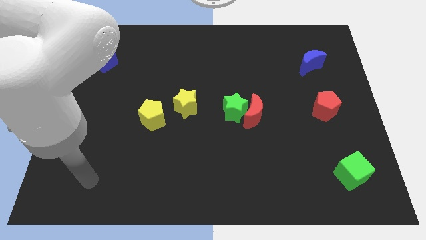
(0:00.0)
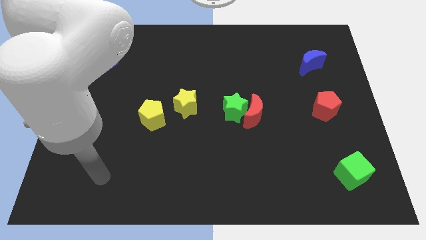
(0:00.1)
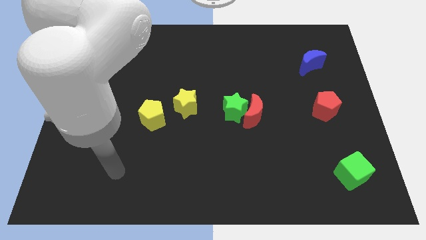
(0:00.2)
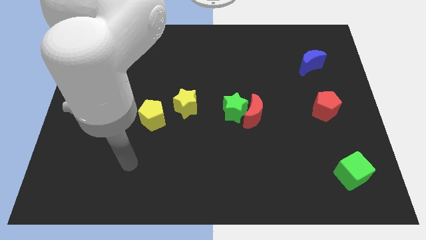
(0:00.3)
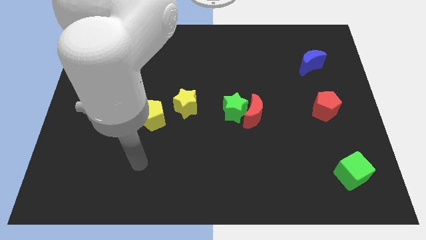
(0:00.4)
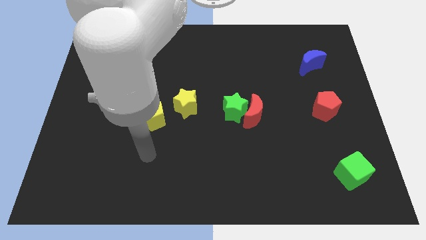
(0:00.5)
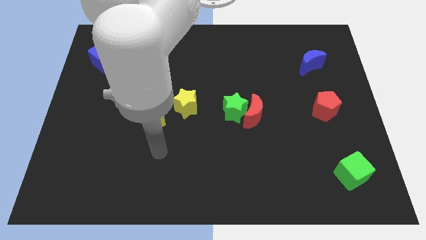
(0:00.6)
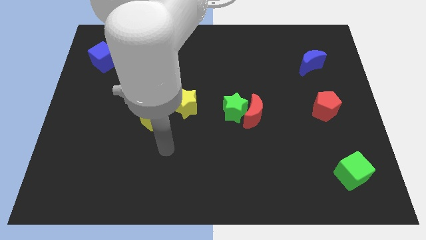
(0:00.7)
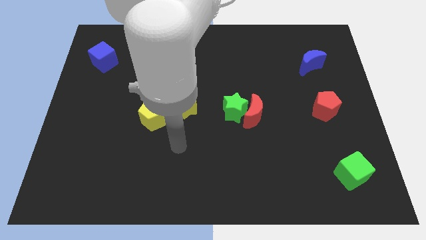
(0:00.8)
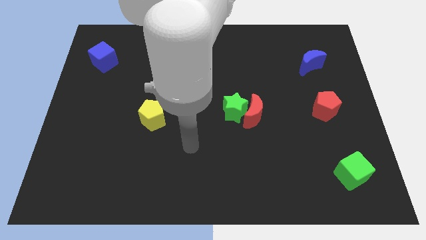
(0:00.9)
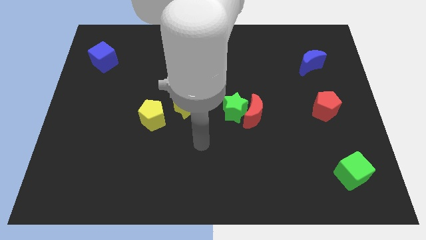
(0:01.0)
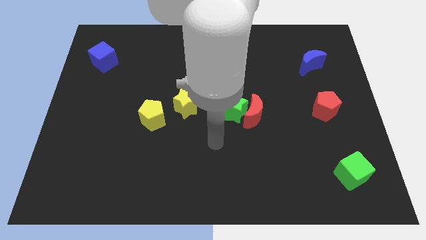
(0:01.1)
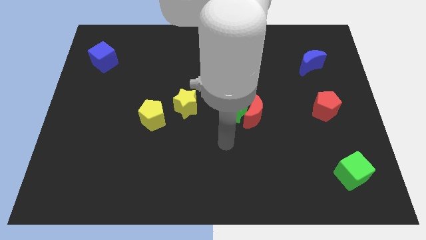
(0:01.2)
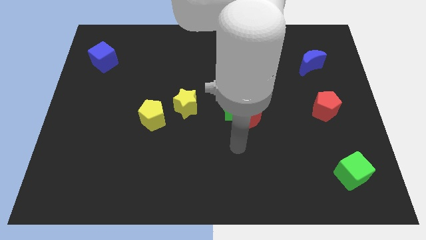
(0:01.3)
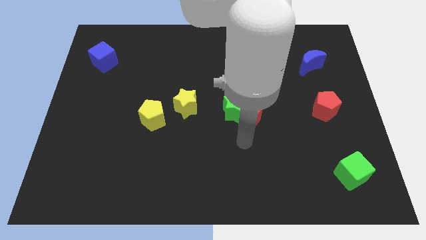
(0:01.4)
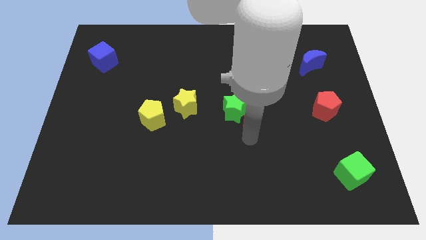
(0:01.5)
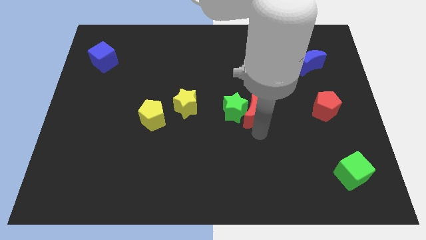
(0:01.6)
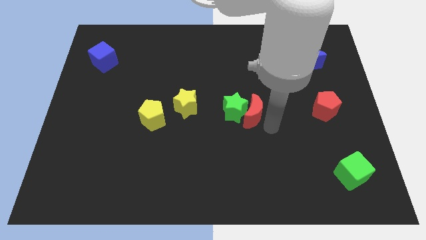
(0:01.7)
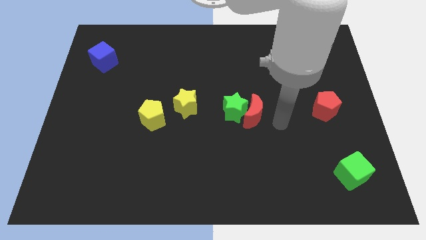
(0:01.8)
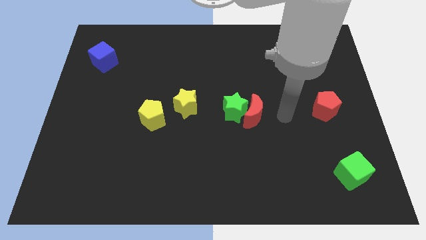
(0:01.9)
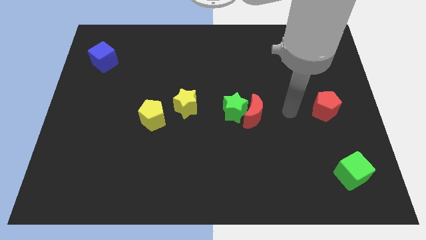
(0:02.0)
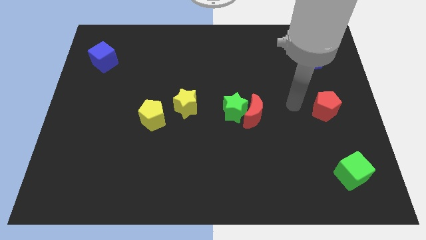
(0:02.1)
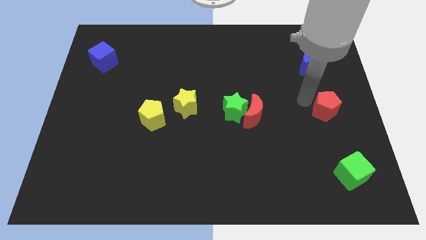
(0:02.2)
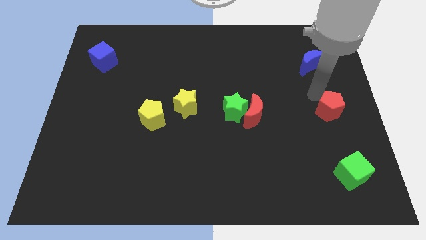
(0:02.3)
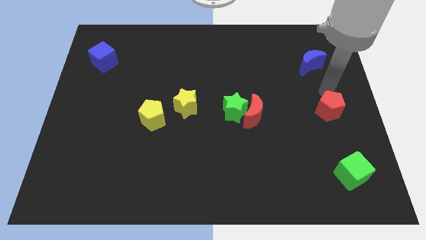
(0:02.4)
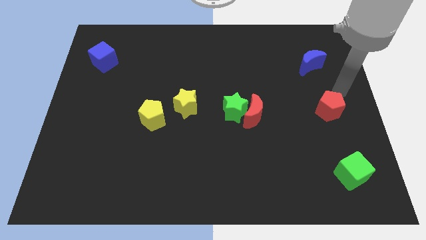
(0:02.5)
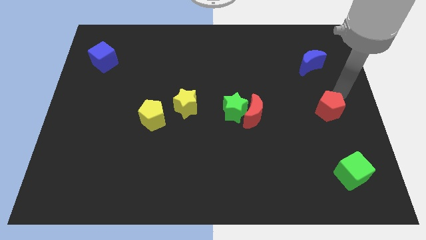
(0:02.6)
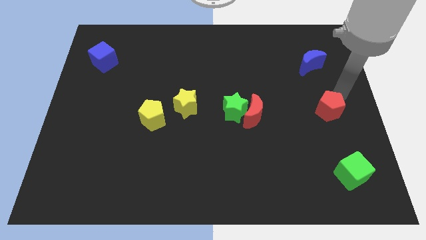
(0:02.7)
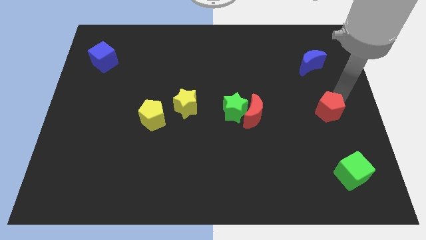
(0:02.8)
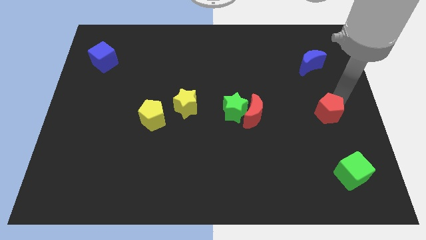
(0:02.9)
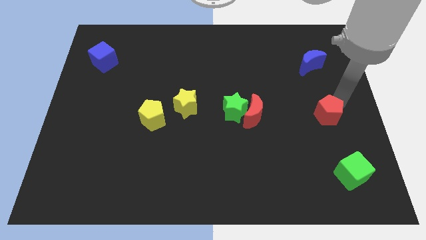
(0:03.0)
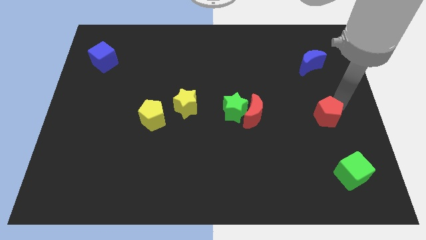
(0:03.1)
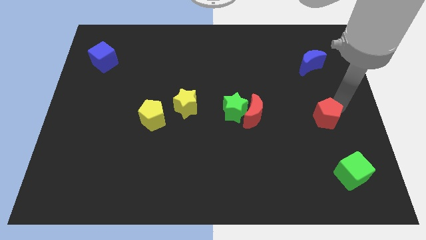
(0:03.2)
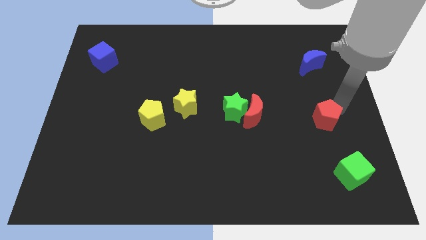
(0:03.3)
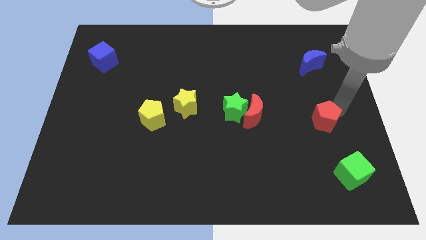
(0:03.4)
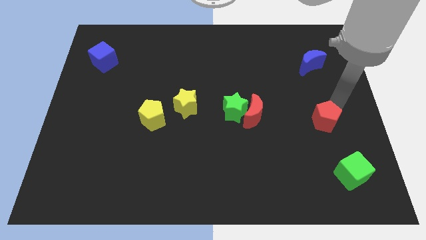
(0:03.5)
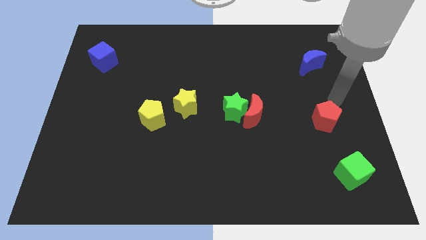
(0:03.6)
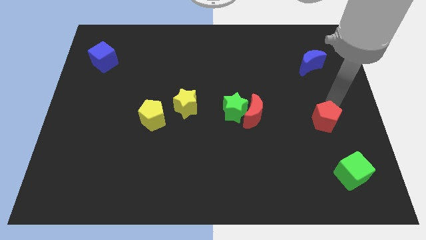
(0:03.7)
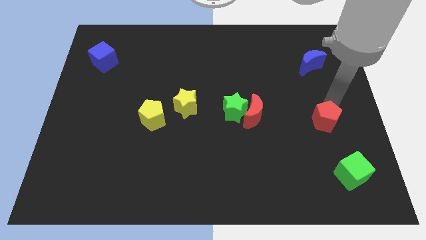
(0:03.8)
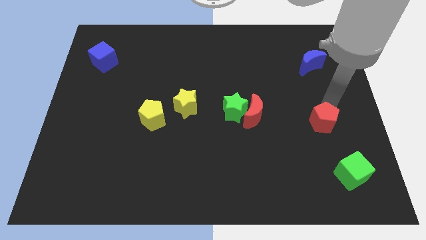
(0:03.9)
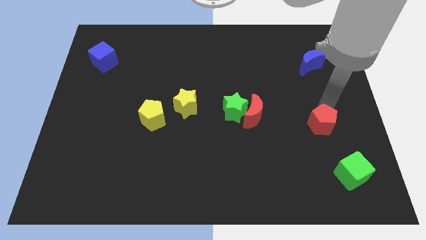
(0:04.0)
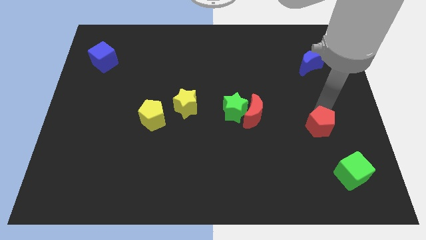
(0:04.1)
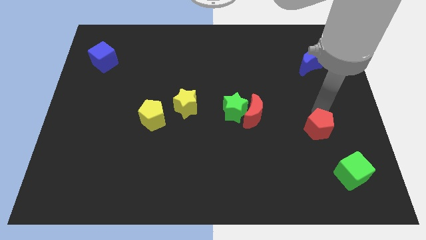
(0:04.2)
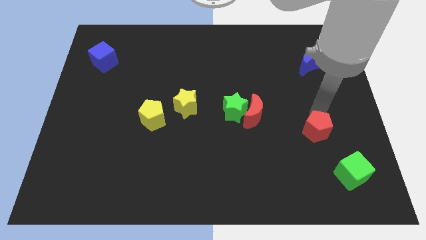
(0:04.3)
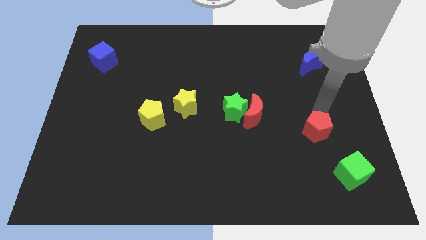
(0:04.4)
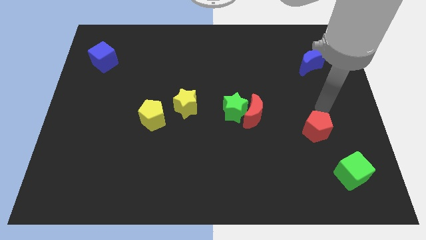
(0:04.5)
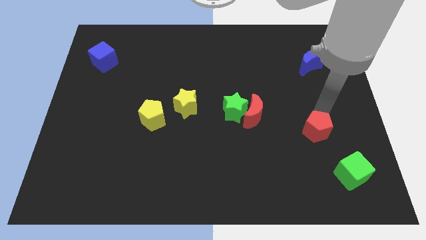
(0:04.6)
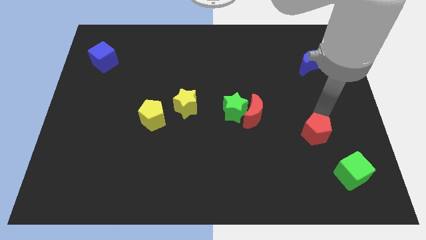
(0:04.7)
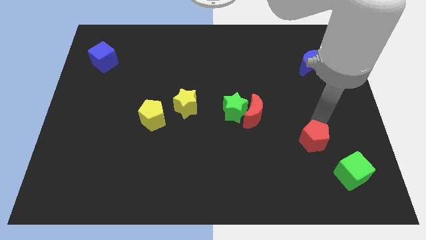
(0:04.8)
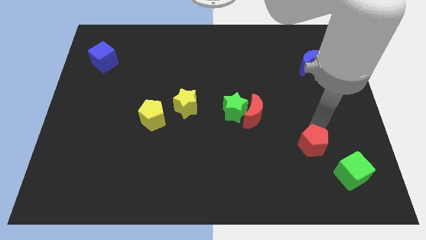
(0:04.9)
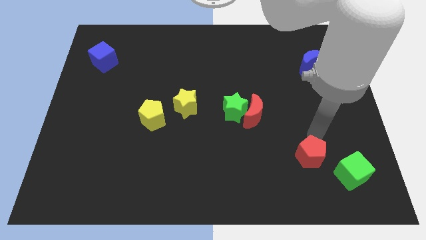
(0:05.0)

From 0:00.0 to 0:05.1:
slide the red pentagon just left of the green cube

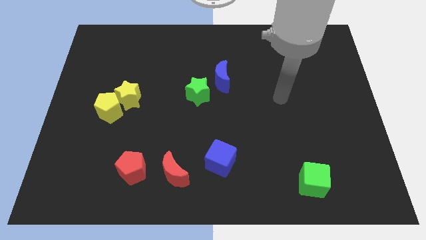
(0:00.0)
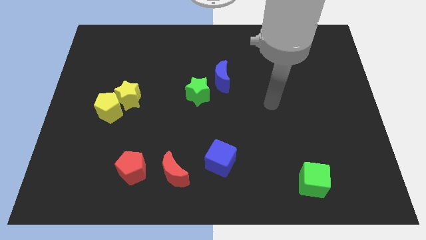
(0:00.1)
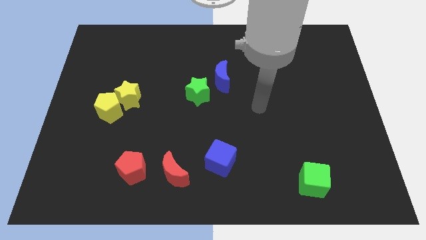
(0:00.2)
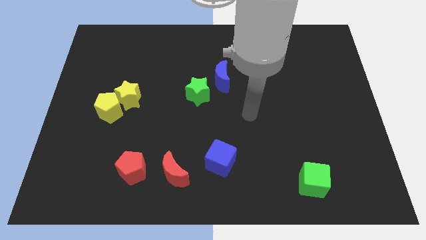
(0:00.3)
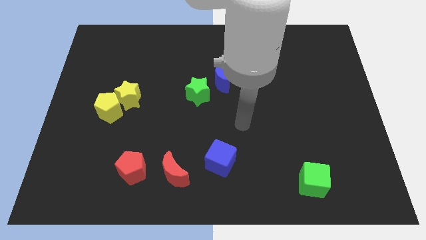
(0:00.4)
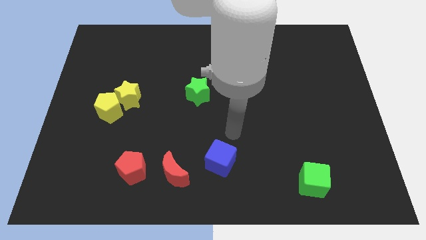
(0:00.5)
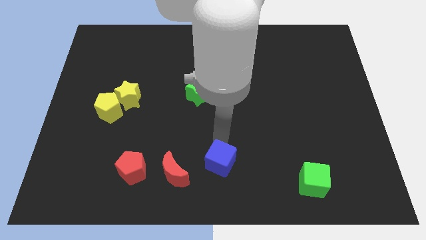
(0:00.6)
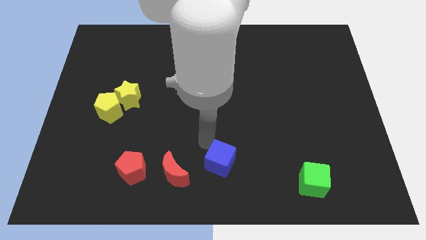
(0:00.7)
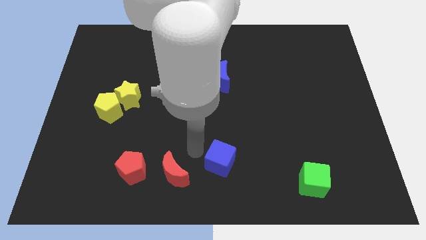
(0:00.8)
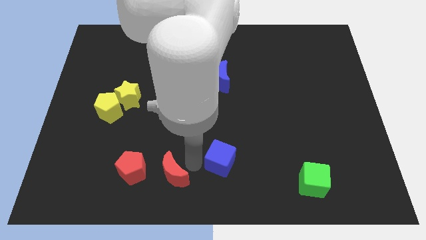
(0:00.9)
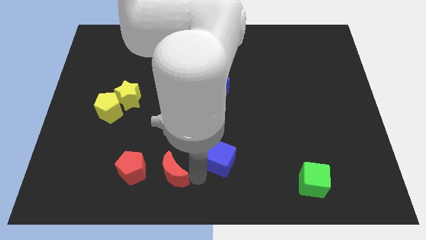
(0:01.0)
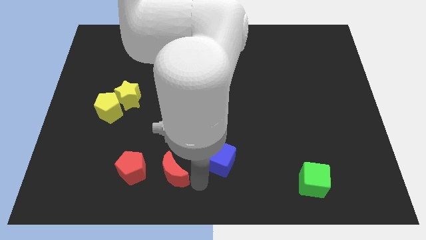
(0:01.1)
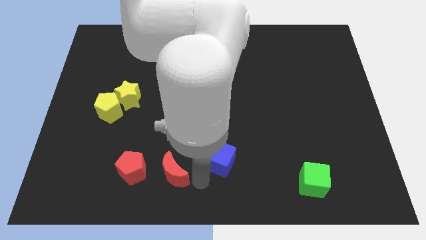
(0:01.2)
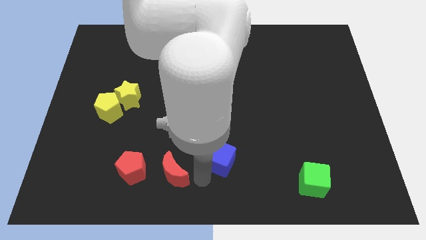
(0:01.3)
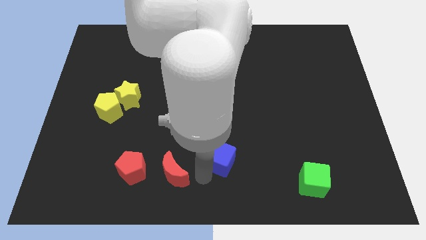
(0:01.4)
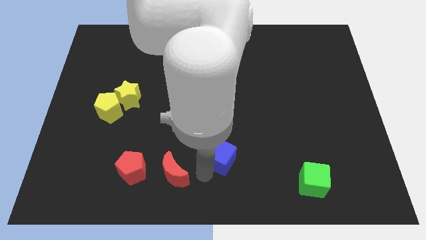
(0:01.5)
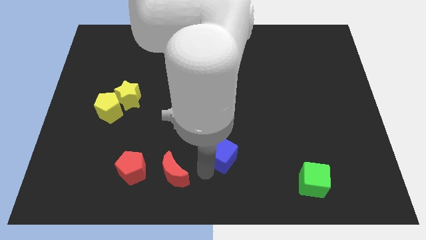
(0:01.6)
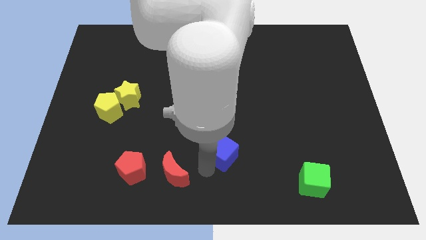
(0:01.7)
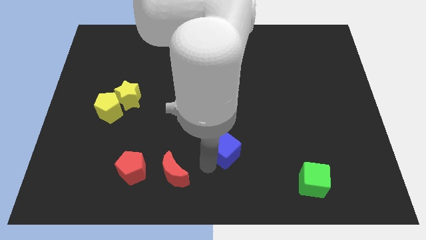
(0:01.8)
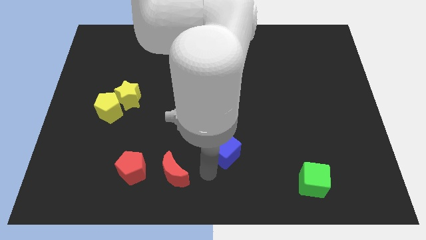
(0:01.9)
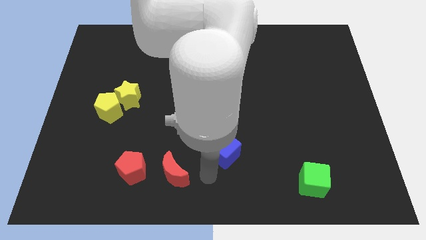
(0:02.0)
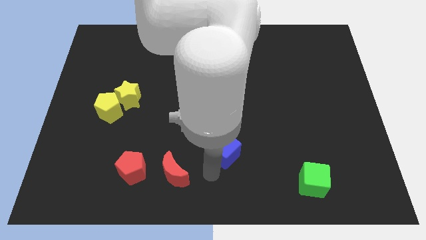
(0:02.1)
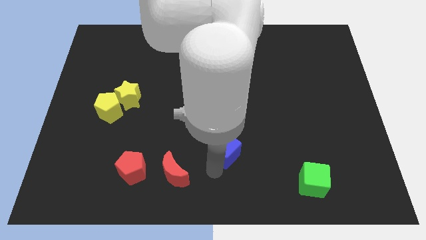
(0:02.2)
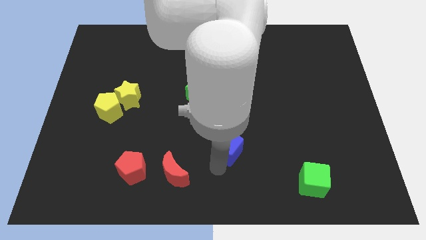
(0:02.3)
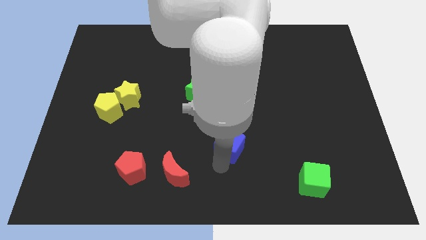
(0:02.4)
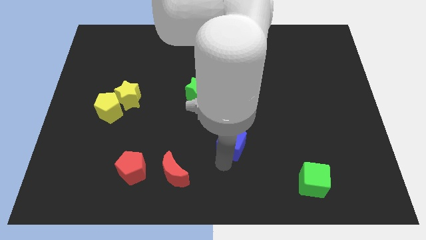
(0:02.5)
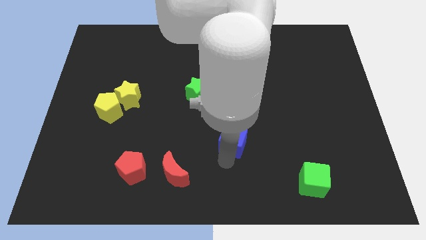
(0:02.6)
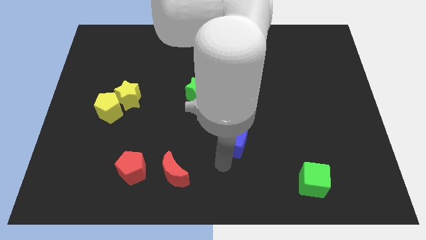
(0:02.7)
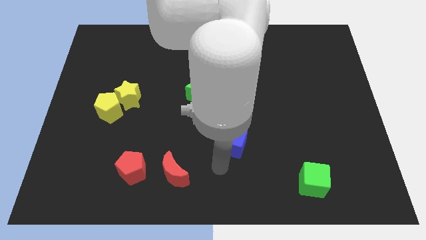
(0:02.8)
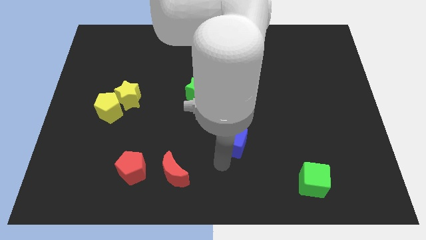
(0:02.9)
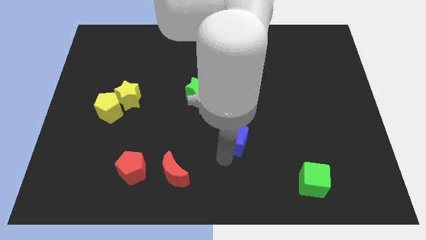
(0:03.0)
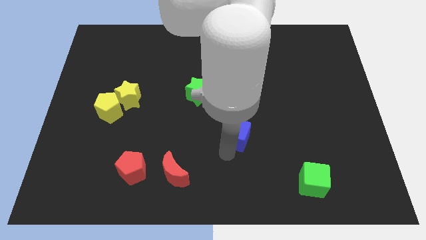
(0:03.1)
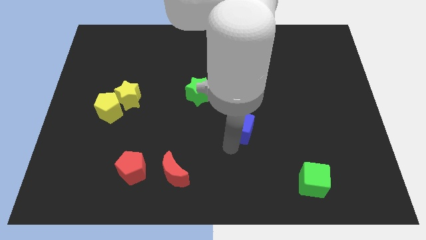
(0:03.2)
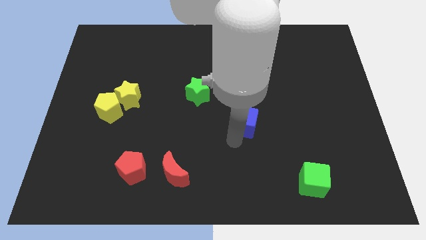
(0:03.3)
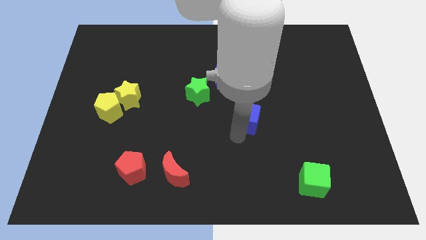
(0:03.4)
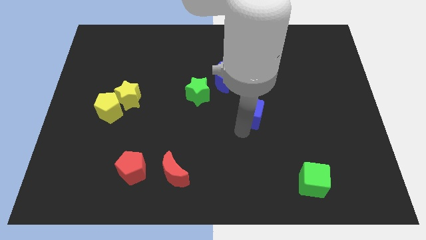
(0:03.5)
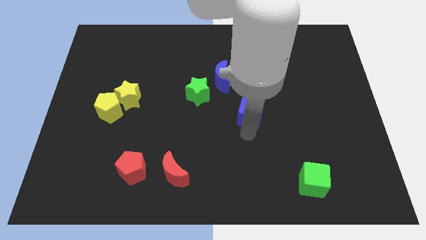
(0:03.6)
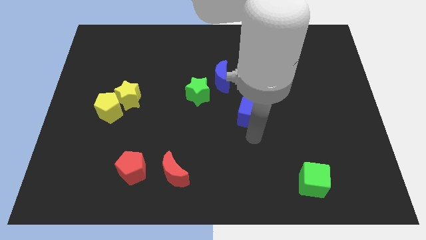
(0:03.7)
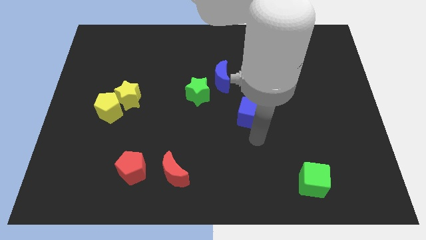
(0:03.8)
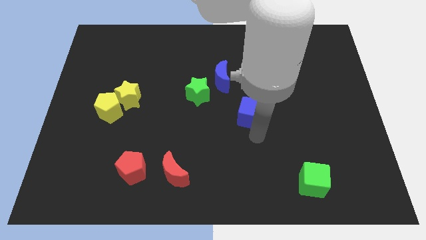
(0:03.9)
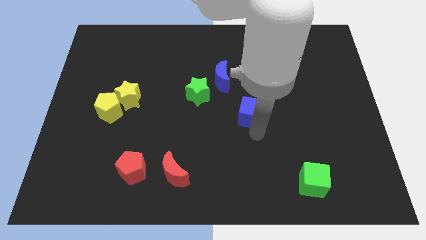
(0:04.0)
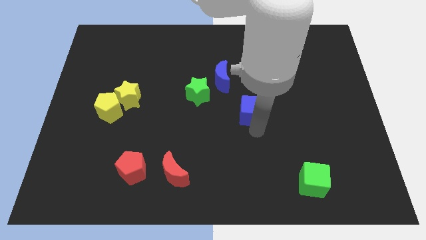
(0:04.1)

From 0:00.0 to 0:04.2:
push the blue cube to the bottom right of the blue moon
